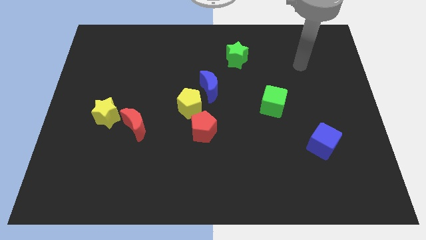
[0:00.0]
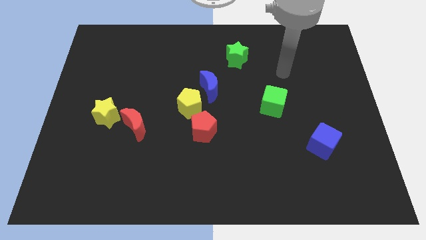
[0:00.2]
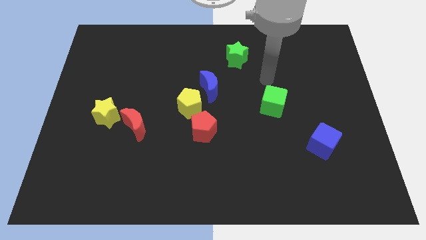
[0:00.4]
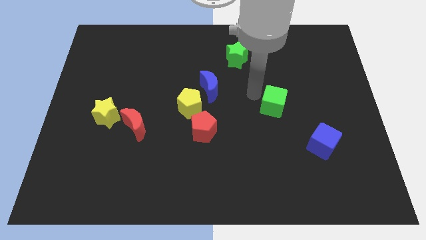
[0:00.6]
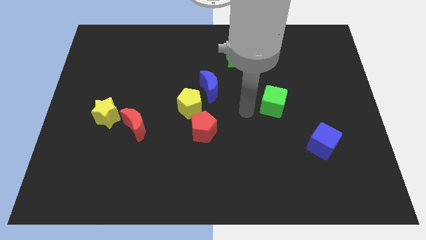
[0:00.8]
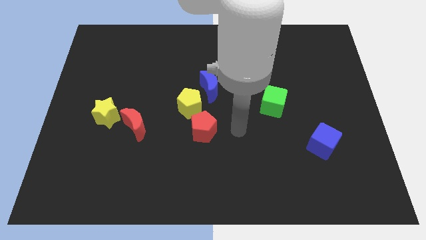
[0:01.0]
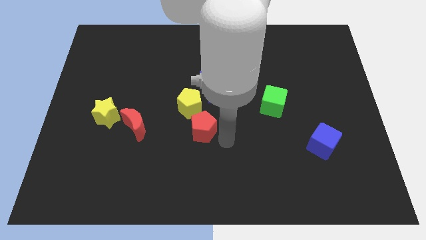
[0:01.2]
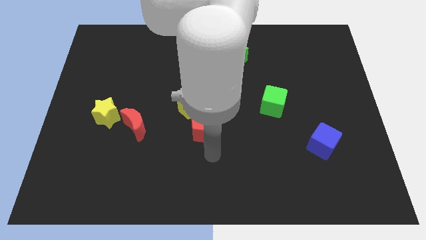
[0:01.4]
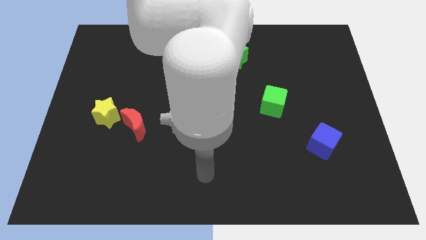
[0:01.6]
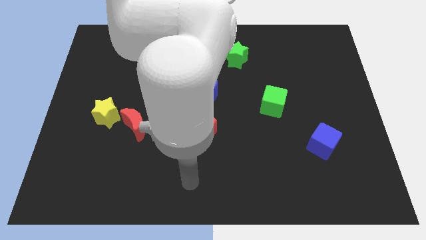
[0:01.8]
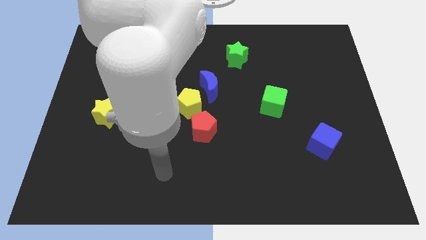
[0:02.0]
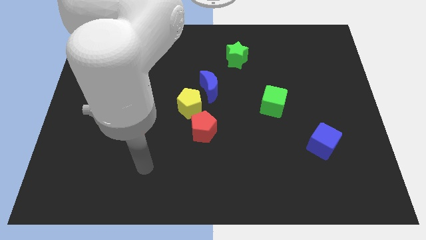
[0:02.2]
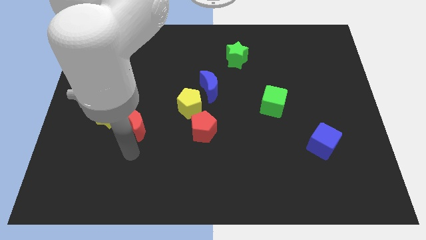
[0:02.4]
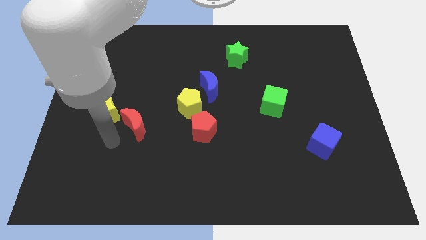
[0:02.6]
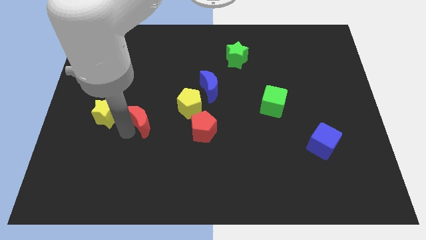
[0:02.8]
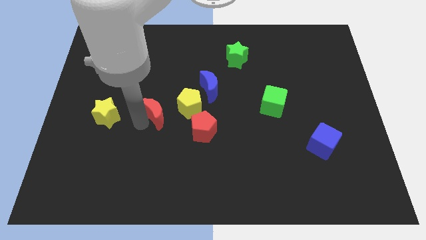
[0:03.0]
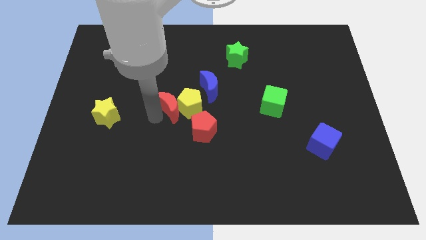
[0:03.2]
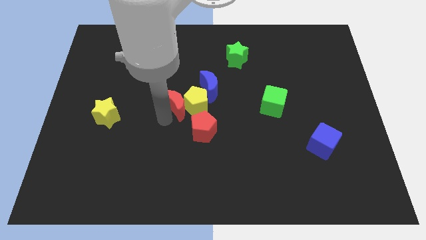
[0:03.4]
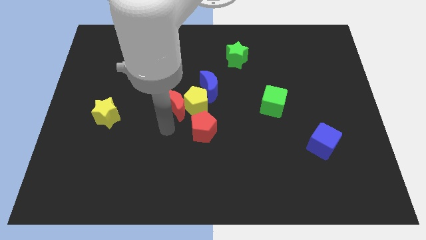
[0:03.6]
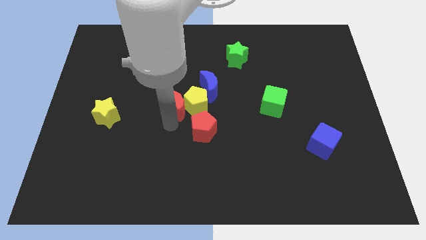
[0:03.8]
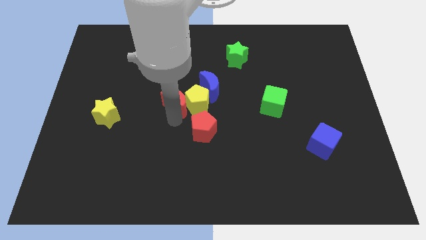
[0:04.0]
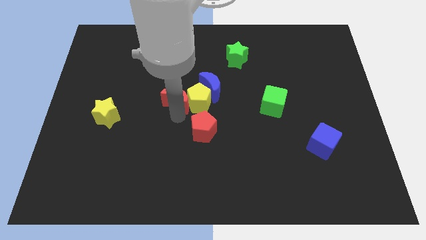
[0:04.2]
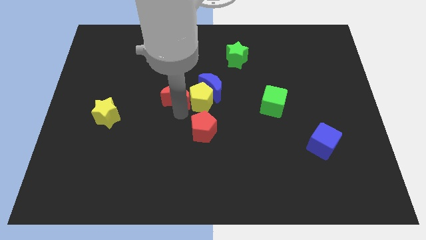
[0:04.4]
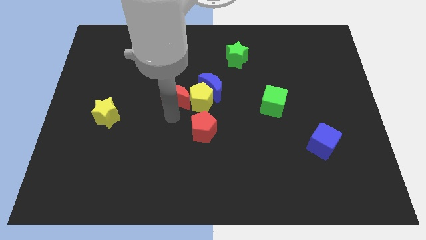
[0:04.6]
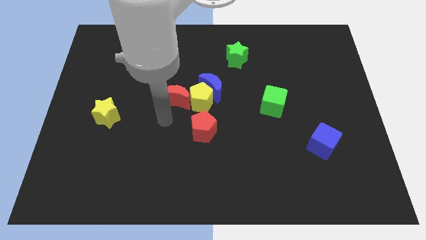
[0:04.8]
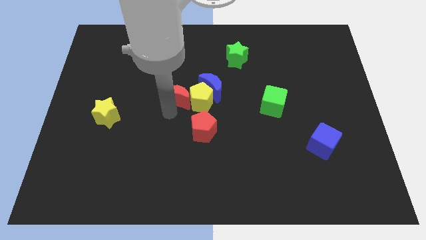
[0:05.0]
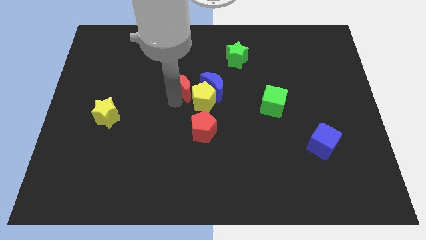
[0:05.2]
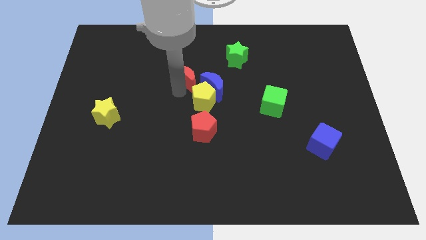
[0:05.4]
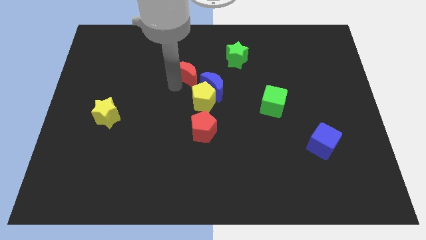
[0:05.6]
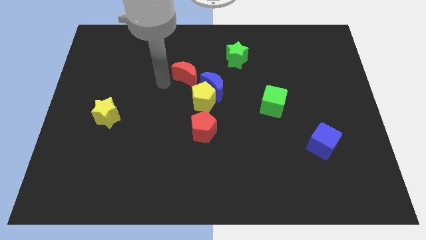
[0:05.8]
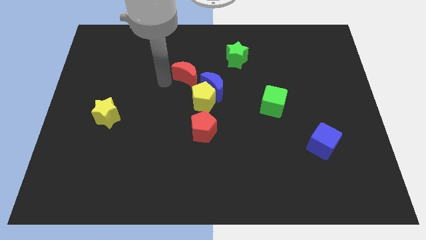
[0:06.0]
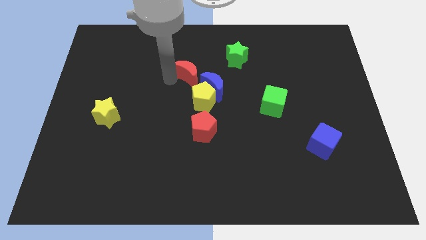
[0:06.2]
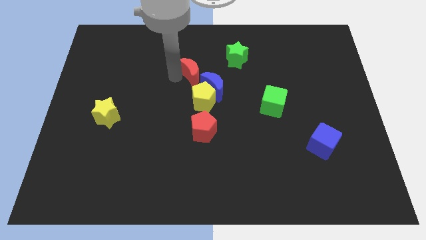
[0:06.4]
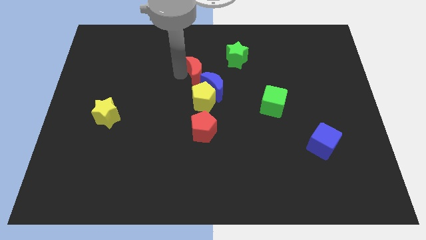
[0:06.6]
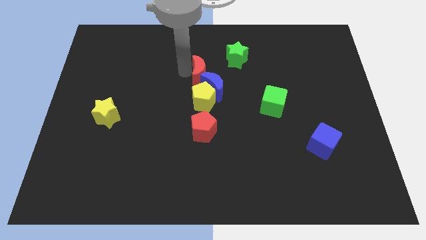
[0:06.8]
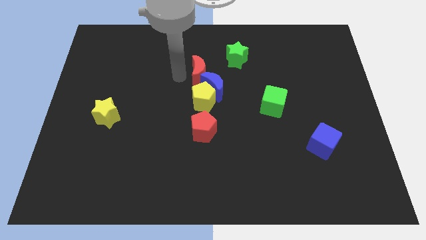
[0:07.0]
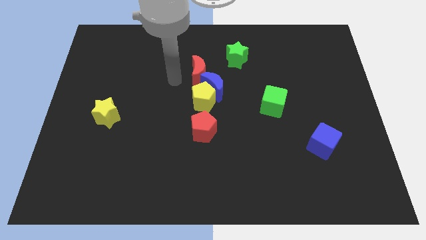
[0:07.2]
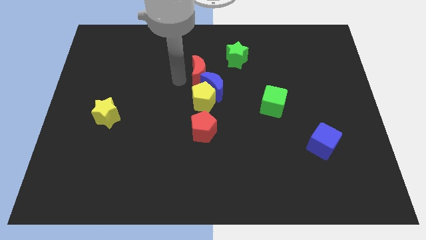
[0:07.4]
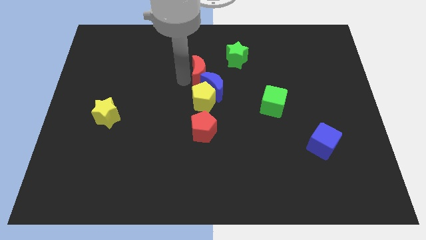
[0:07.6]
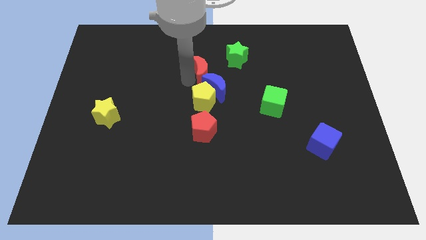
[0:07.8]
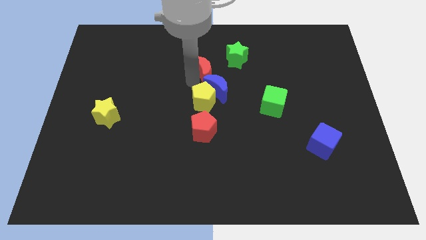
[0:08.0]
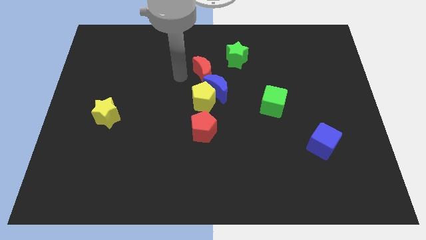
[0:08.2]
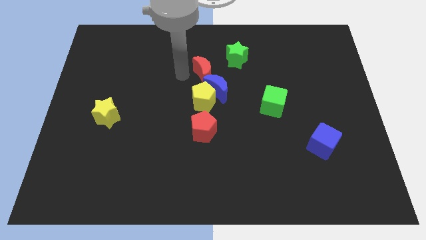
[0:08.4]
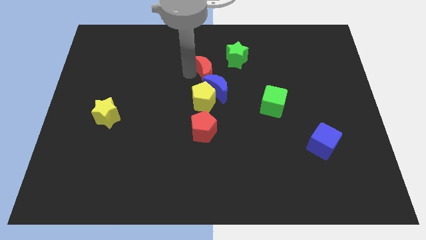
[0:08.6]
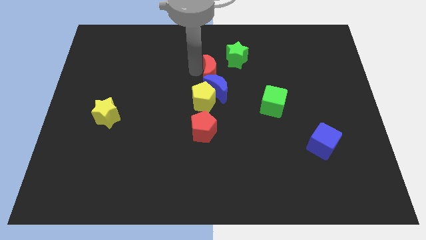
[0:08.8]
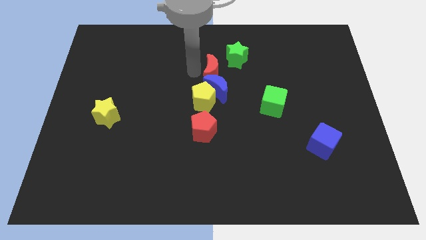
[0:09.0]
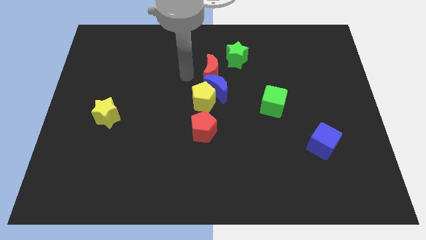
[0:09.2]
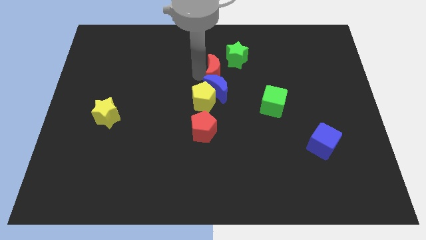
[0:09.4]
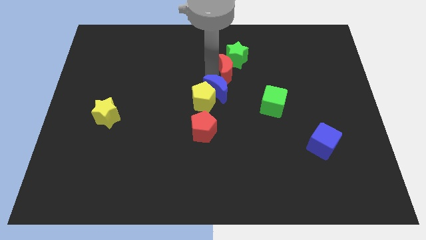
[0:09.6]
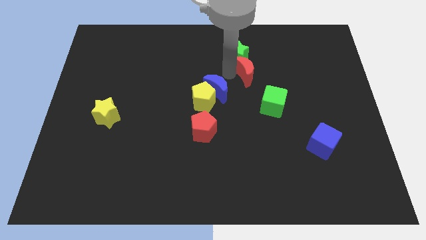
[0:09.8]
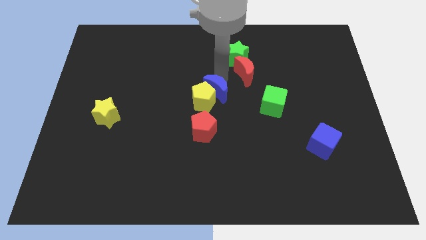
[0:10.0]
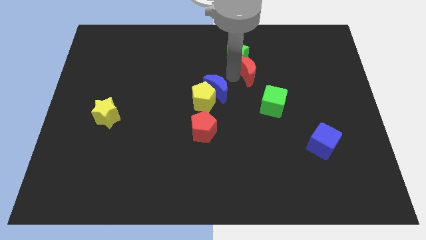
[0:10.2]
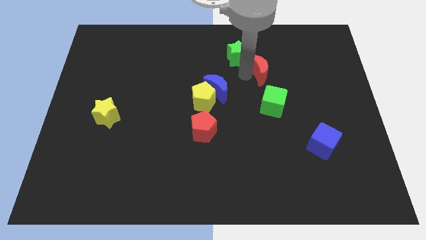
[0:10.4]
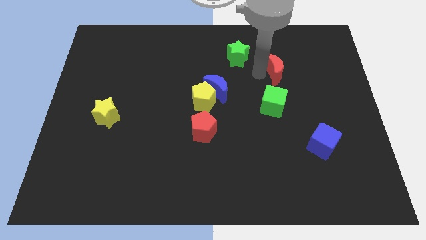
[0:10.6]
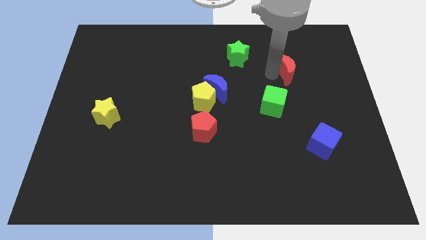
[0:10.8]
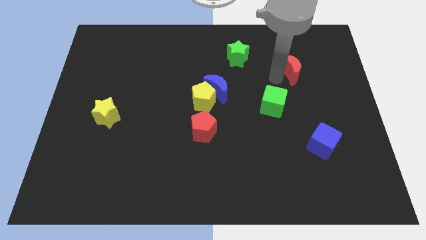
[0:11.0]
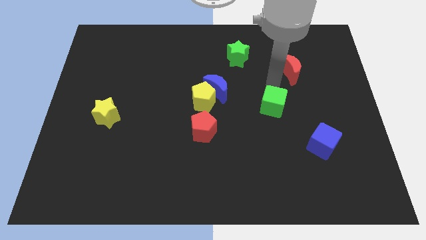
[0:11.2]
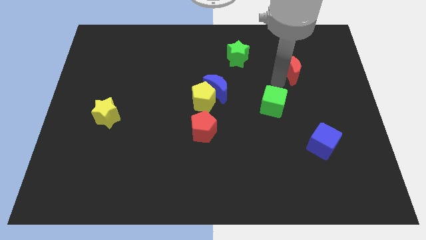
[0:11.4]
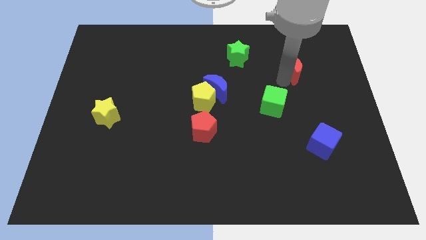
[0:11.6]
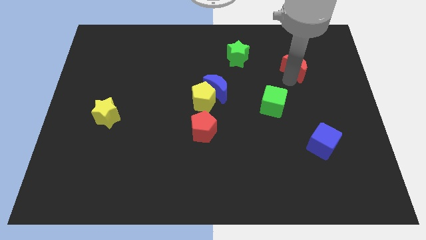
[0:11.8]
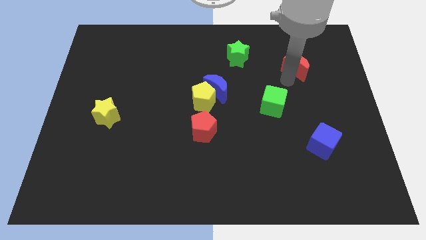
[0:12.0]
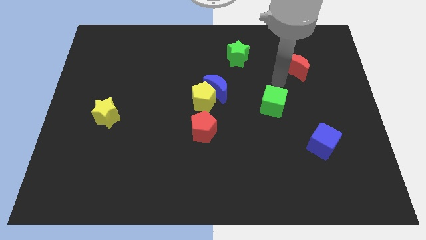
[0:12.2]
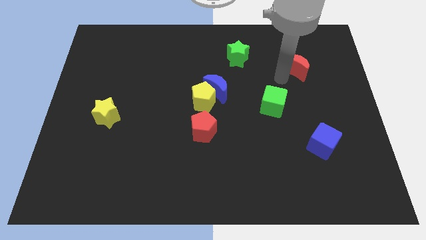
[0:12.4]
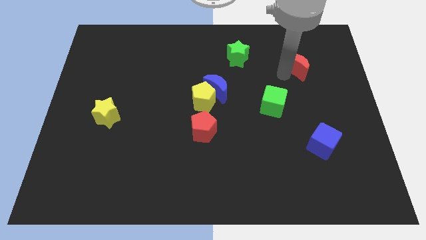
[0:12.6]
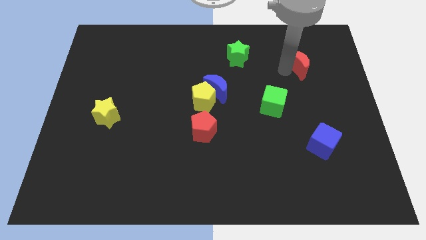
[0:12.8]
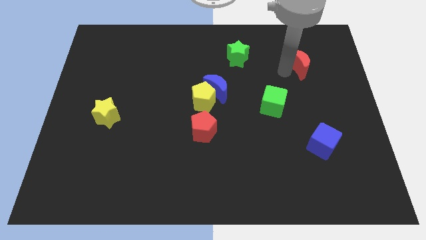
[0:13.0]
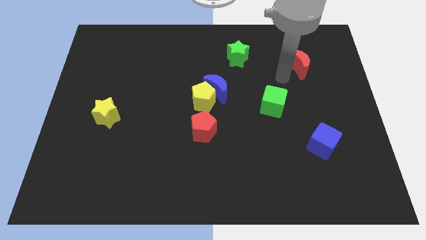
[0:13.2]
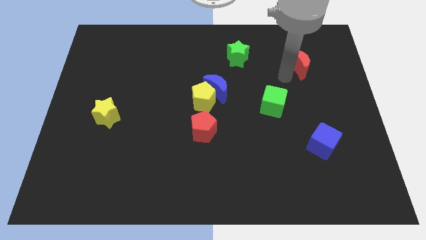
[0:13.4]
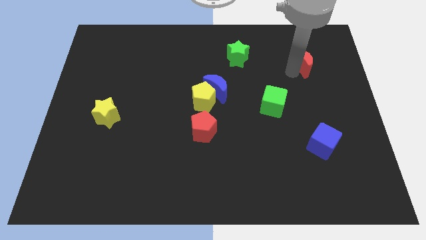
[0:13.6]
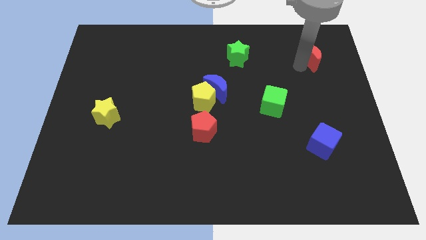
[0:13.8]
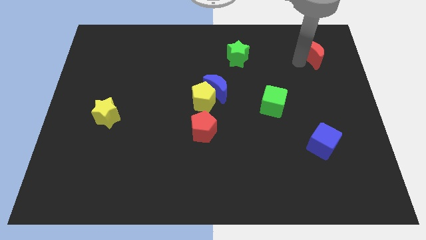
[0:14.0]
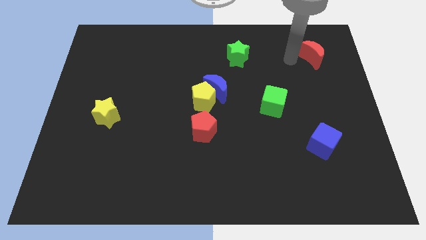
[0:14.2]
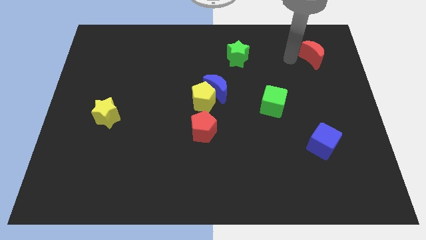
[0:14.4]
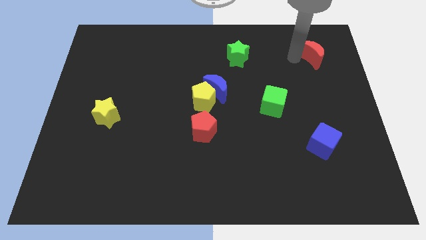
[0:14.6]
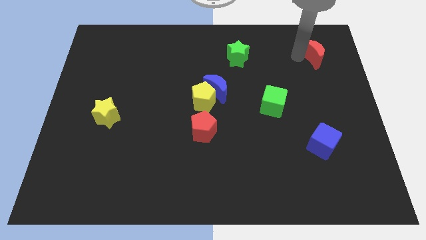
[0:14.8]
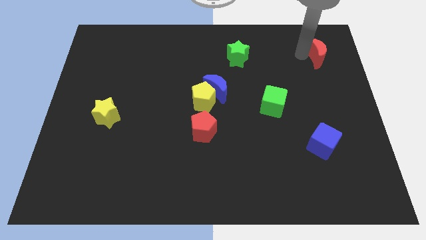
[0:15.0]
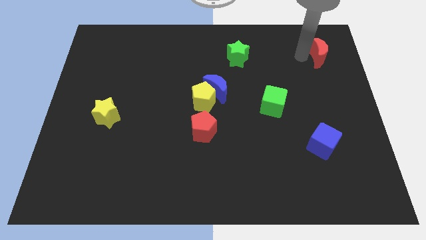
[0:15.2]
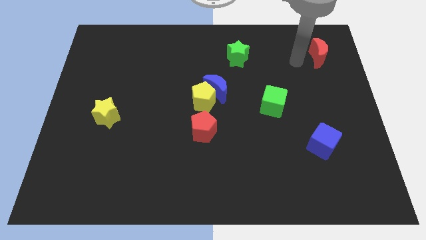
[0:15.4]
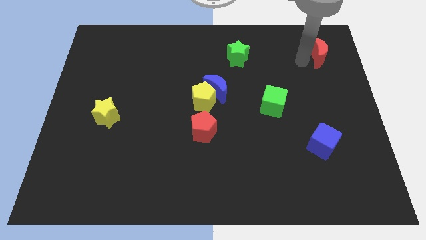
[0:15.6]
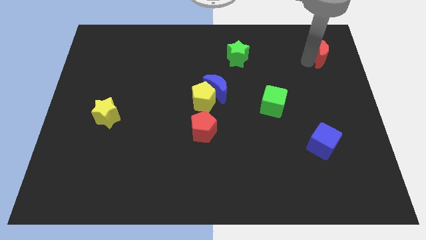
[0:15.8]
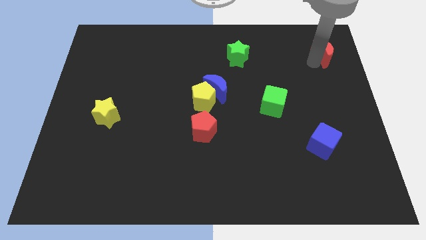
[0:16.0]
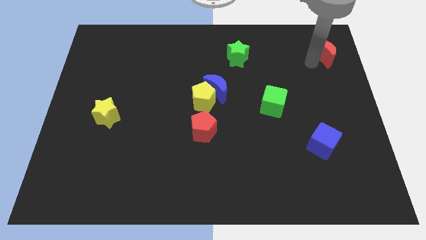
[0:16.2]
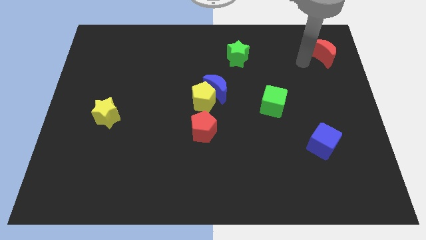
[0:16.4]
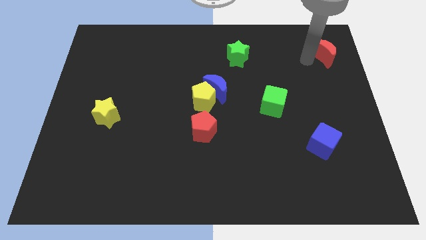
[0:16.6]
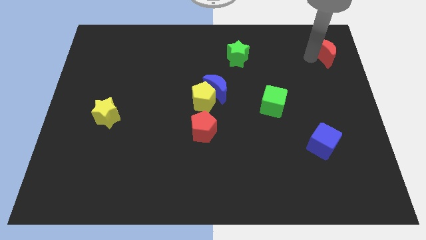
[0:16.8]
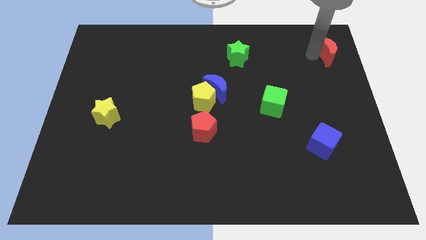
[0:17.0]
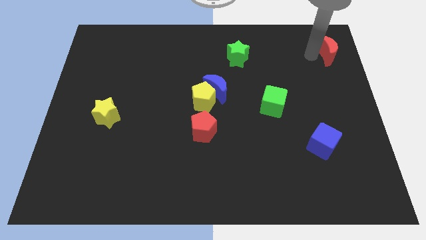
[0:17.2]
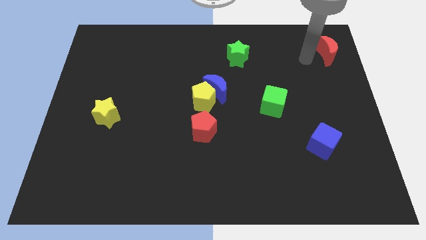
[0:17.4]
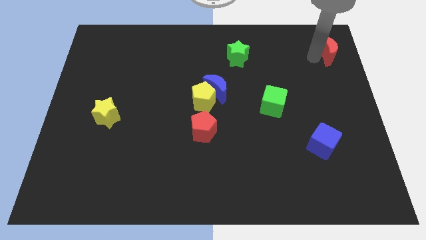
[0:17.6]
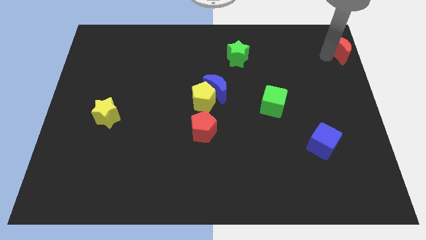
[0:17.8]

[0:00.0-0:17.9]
put the red moon to the top right corner
